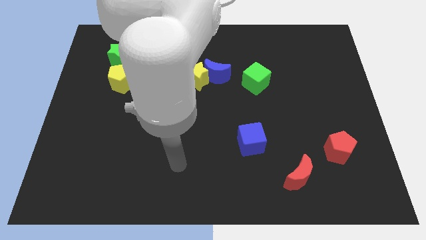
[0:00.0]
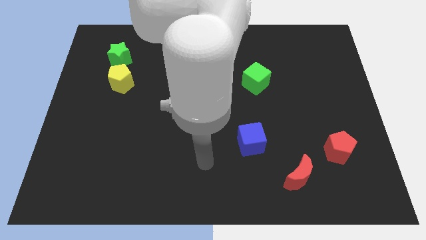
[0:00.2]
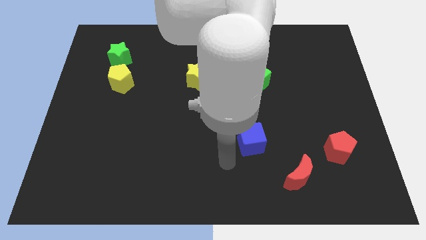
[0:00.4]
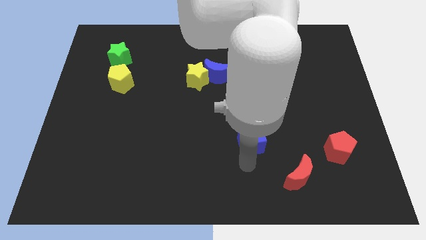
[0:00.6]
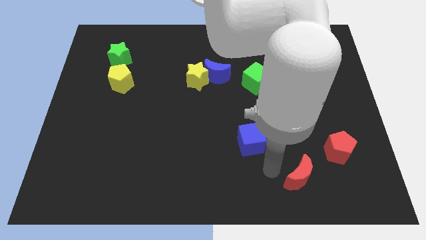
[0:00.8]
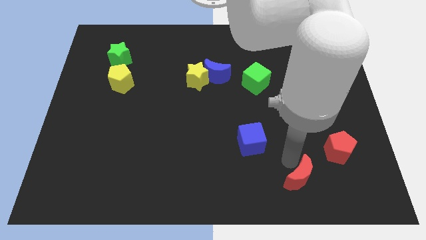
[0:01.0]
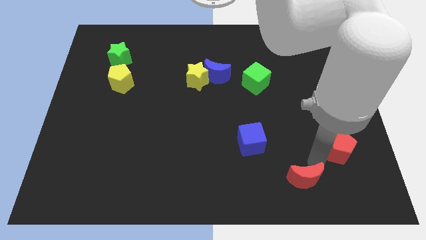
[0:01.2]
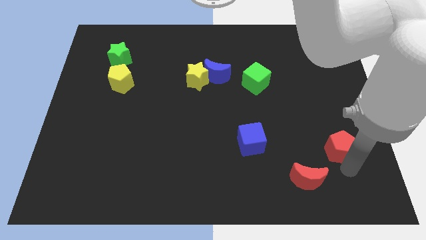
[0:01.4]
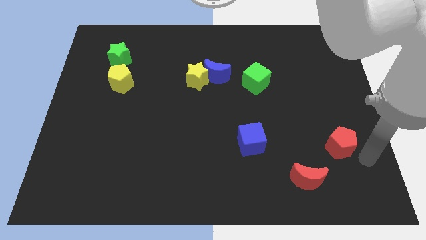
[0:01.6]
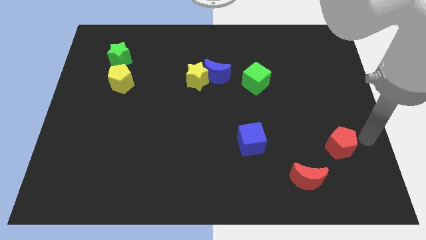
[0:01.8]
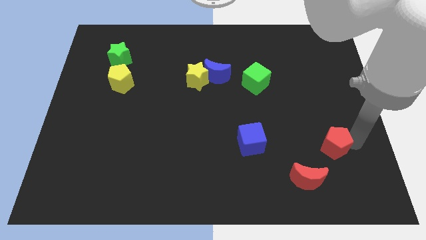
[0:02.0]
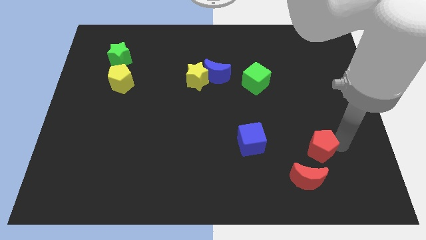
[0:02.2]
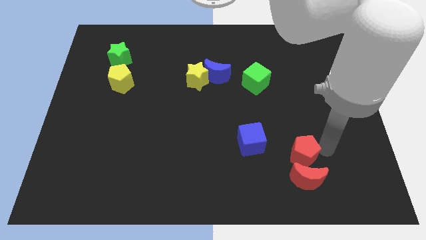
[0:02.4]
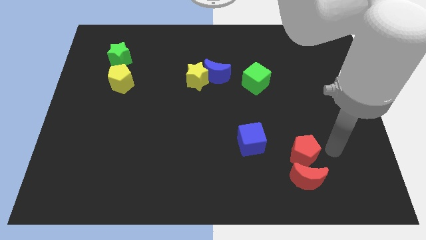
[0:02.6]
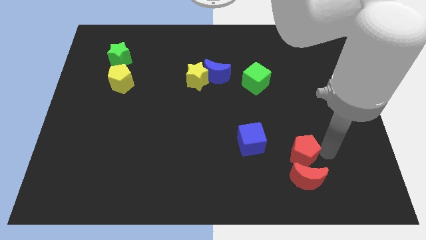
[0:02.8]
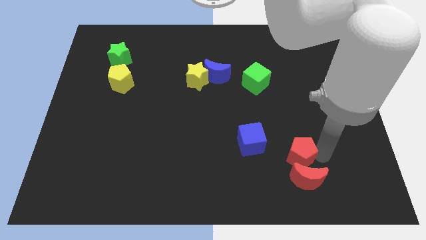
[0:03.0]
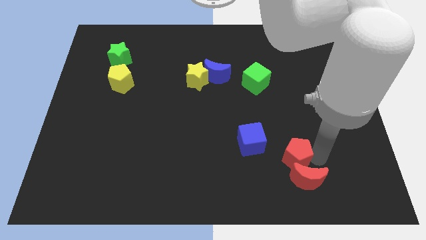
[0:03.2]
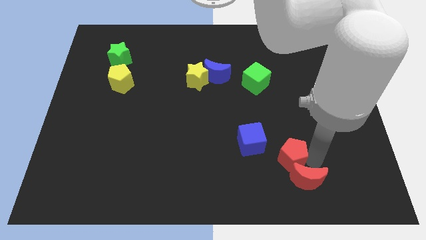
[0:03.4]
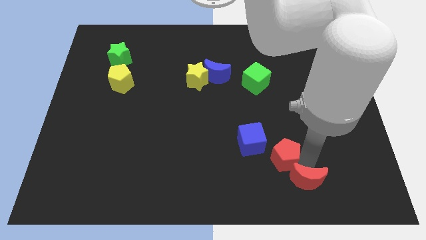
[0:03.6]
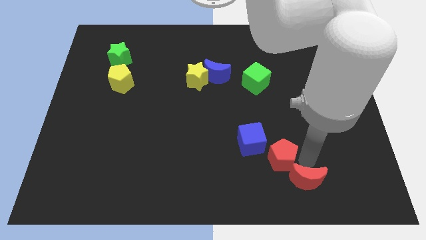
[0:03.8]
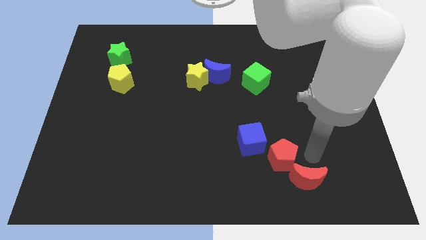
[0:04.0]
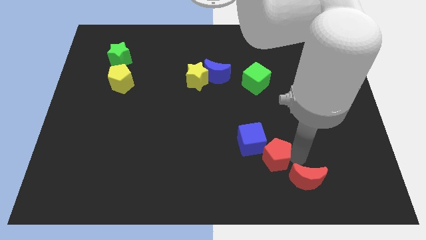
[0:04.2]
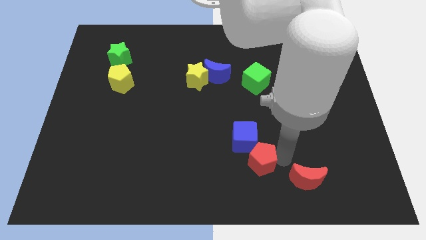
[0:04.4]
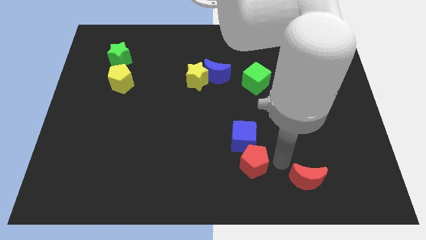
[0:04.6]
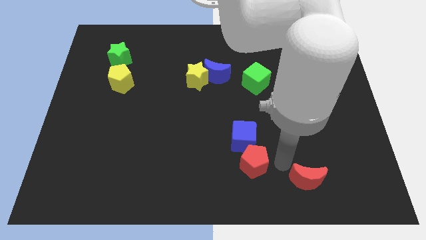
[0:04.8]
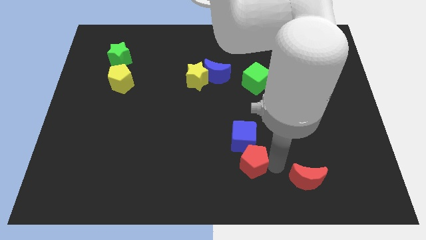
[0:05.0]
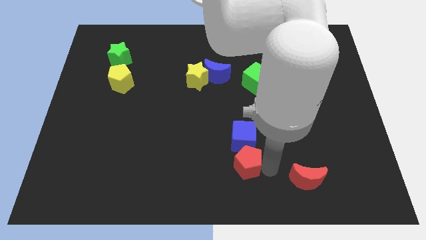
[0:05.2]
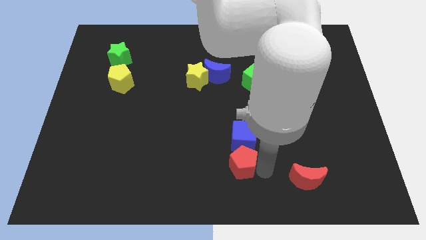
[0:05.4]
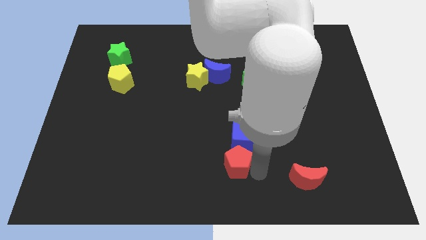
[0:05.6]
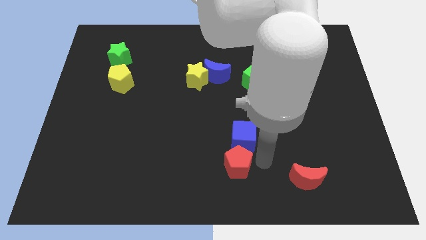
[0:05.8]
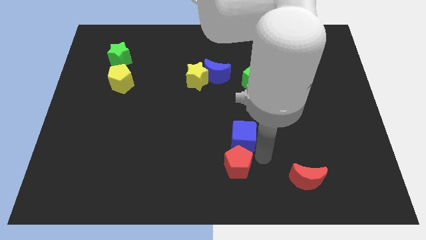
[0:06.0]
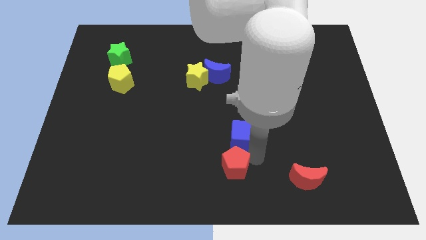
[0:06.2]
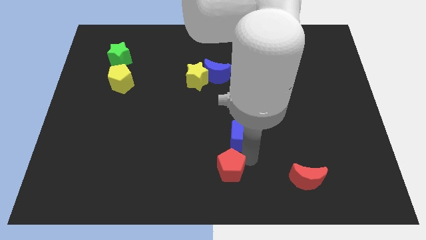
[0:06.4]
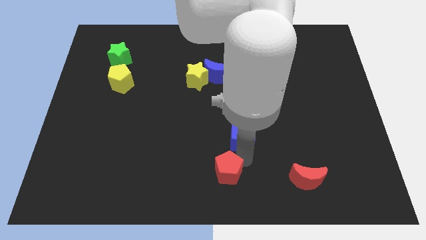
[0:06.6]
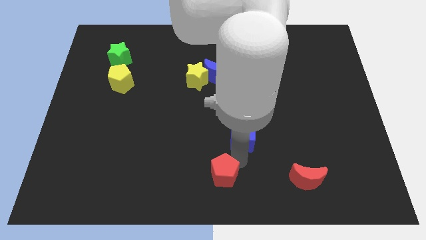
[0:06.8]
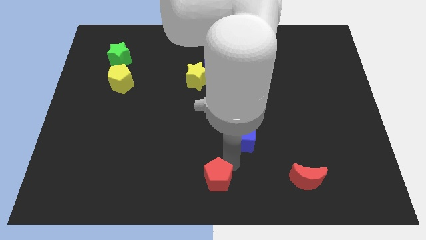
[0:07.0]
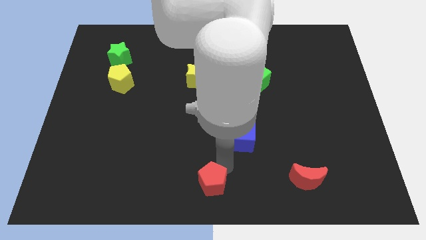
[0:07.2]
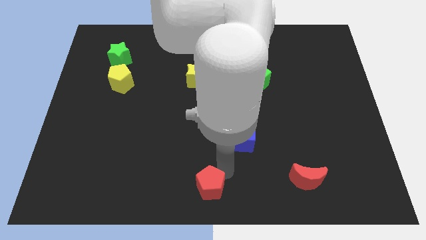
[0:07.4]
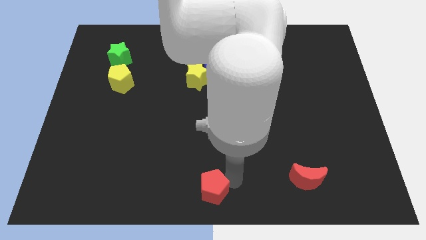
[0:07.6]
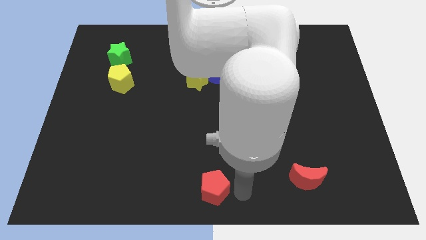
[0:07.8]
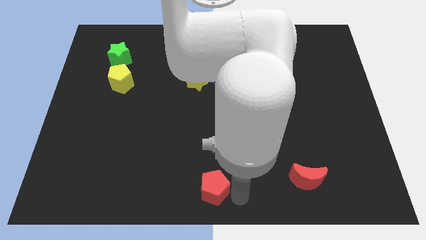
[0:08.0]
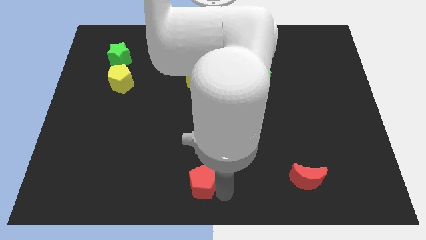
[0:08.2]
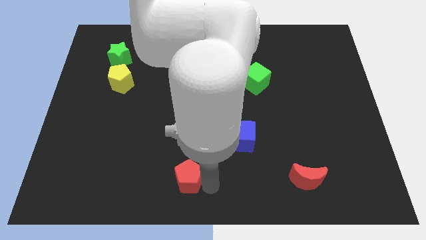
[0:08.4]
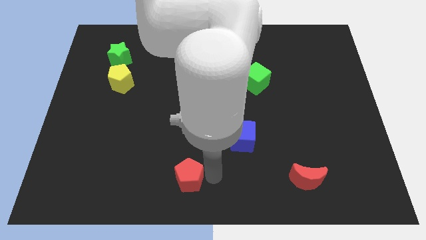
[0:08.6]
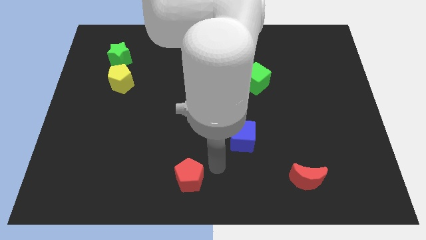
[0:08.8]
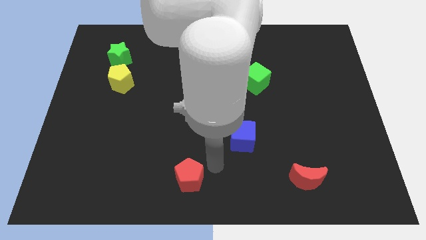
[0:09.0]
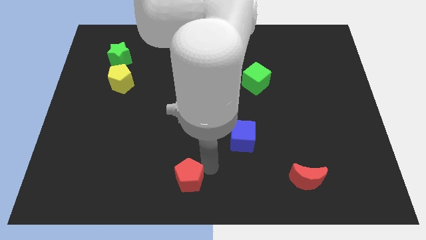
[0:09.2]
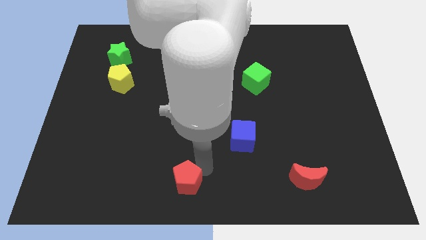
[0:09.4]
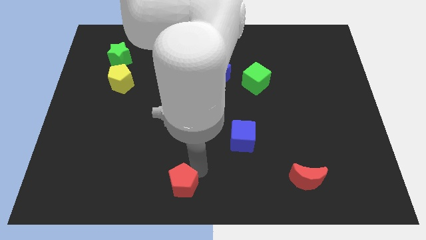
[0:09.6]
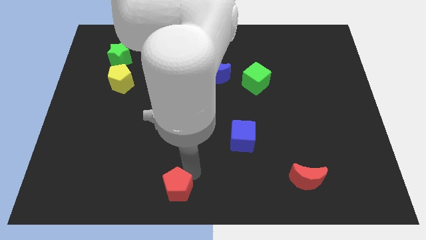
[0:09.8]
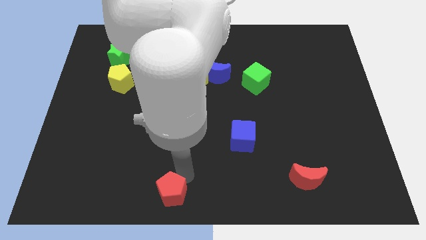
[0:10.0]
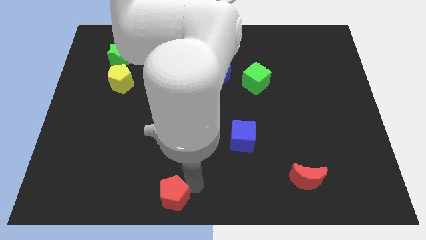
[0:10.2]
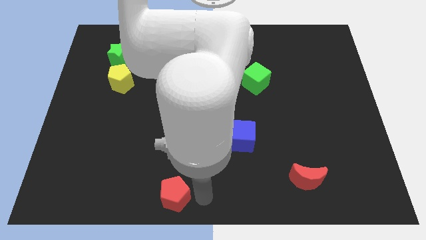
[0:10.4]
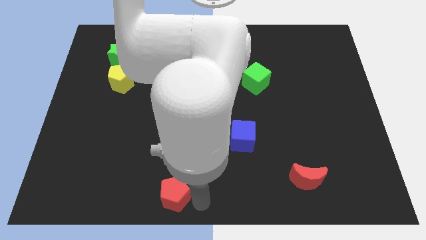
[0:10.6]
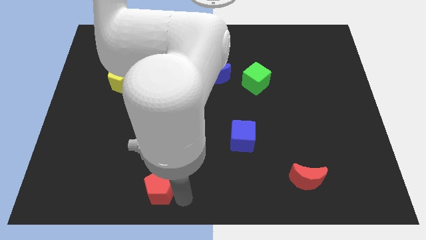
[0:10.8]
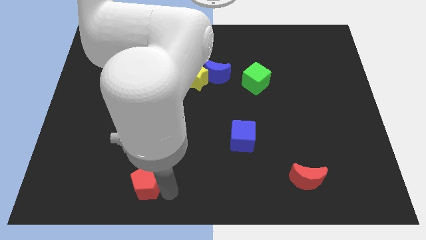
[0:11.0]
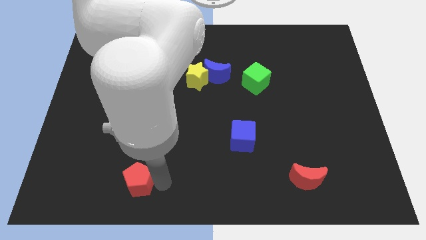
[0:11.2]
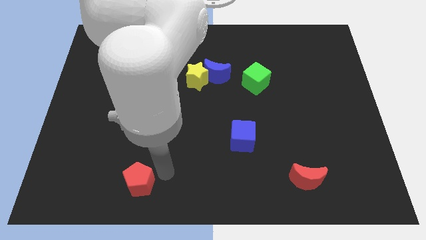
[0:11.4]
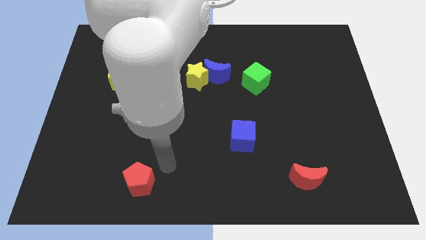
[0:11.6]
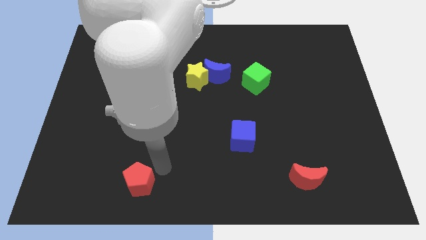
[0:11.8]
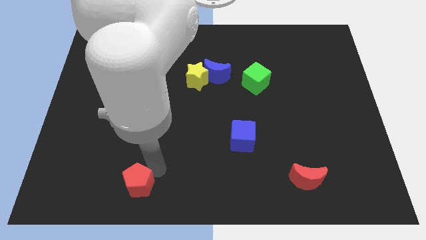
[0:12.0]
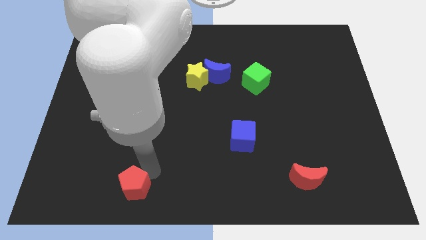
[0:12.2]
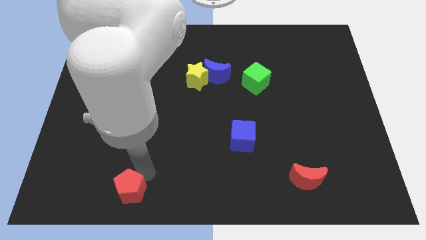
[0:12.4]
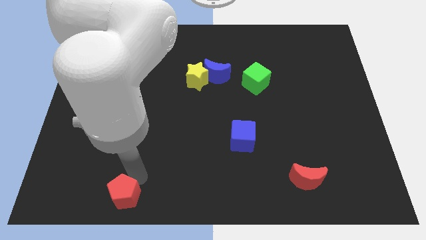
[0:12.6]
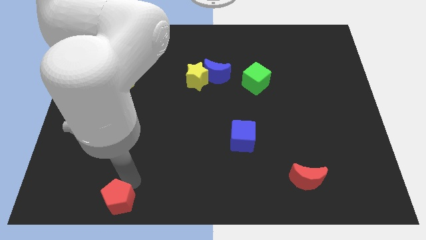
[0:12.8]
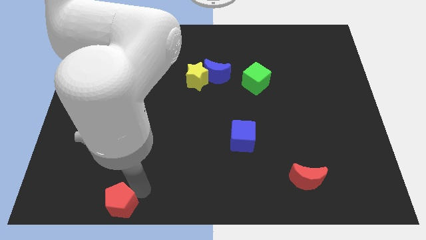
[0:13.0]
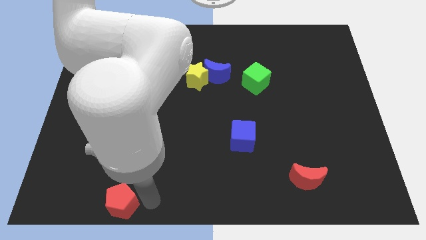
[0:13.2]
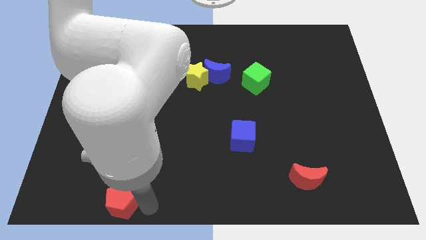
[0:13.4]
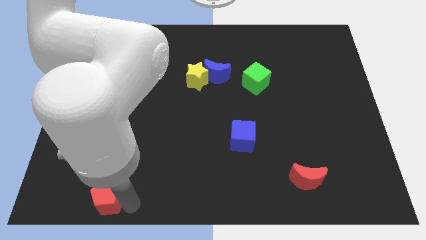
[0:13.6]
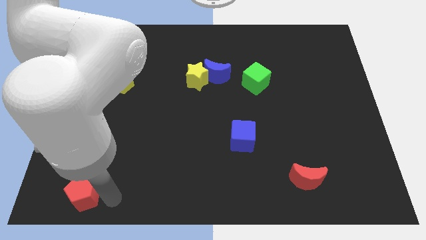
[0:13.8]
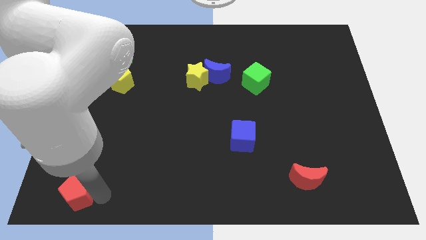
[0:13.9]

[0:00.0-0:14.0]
slide the red pentagon to the bottom left
